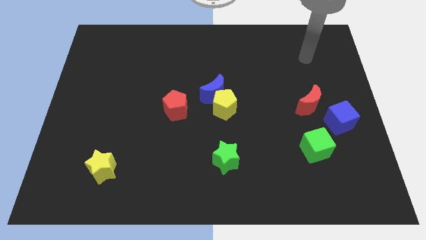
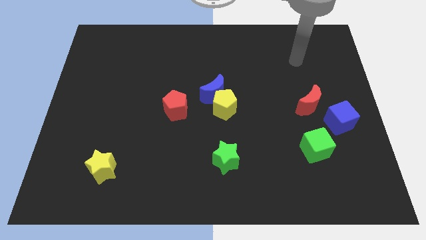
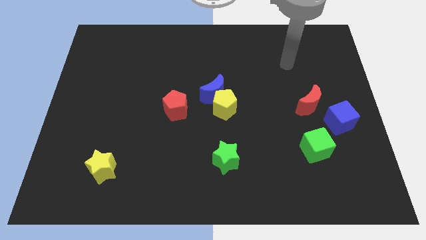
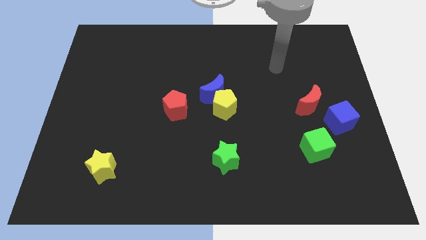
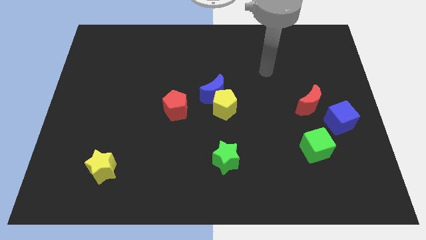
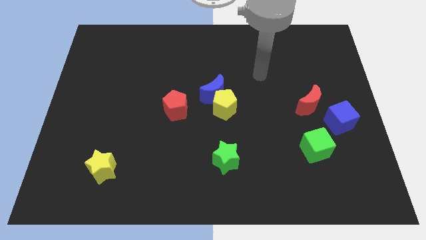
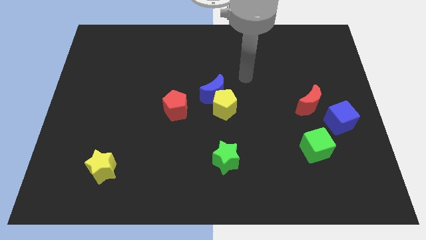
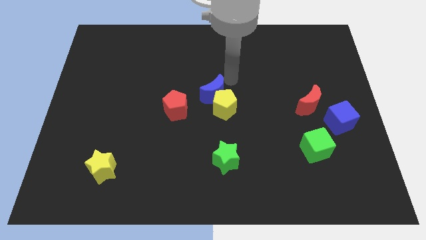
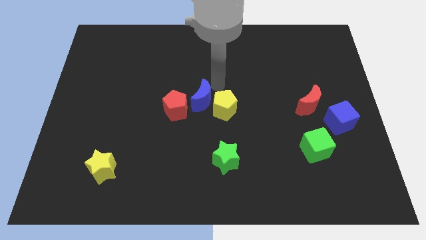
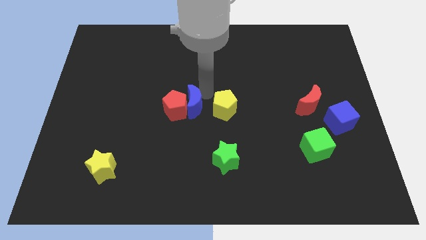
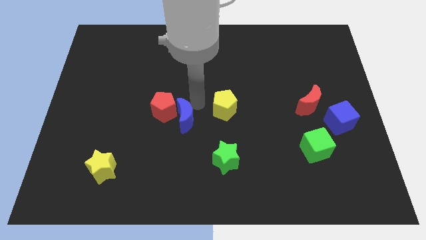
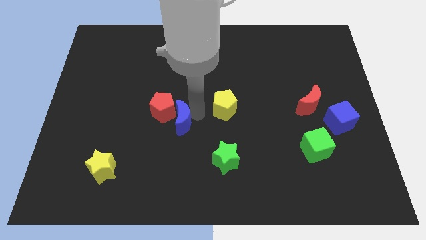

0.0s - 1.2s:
move the yellow pentagon away from the blue moon

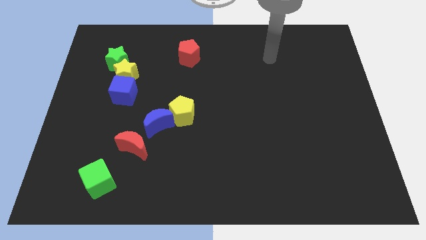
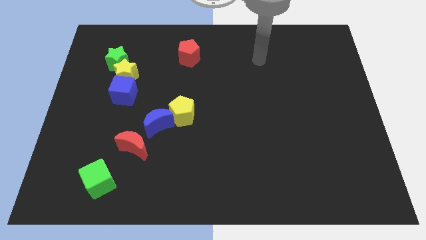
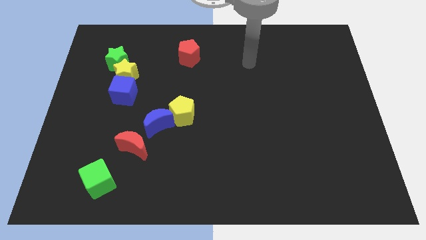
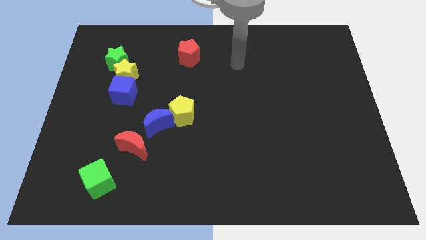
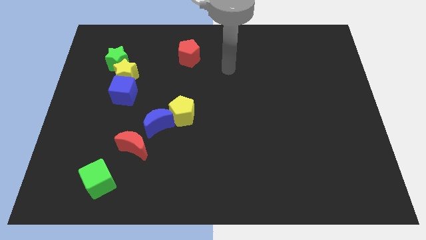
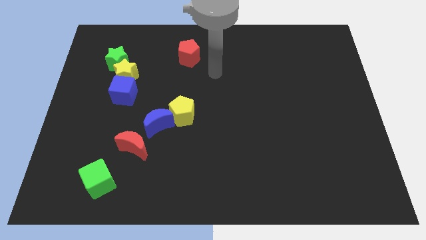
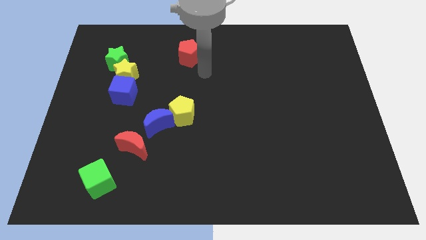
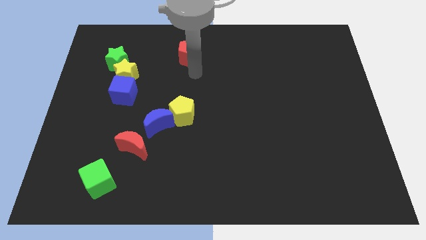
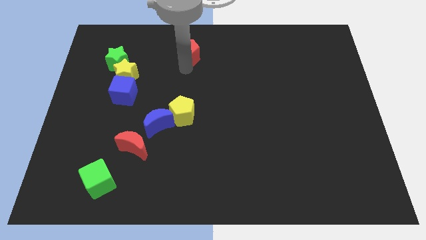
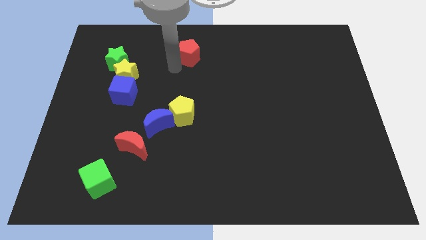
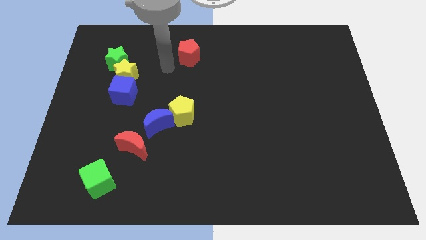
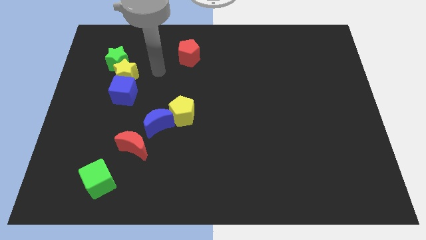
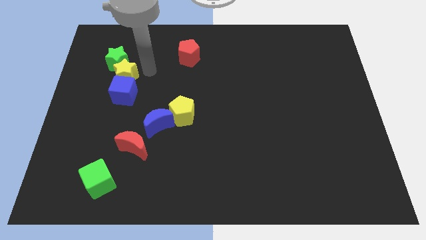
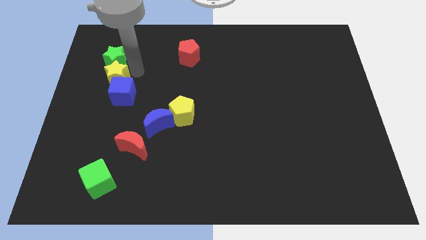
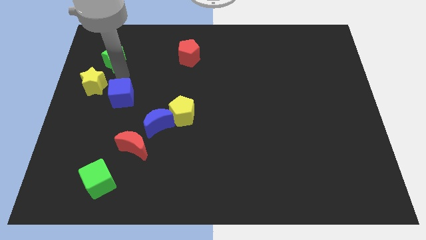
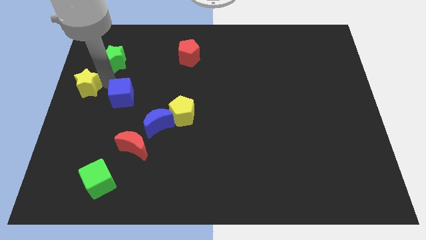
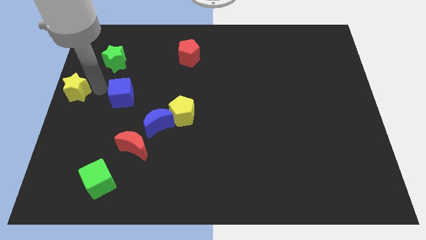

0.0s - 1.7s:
move the blue cube away from the yellow star

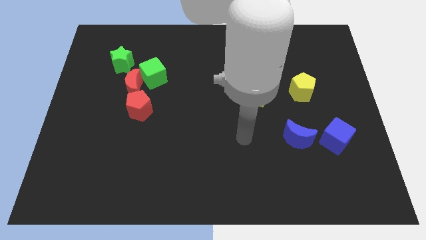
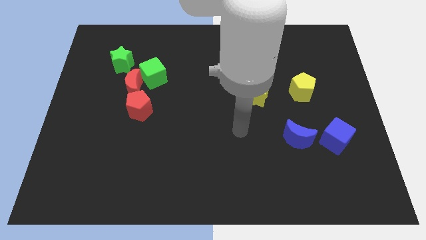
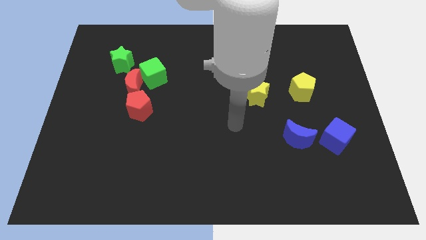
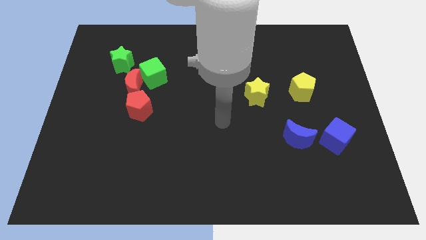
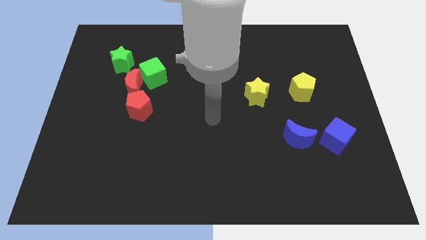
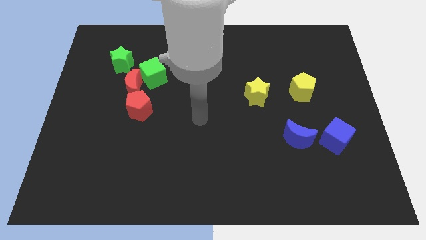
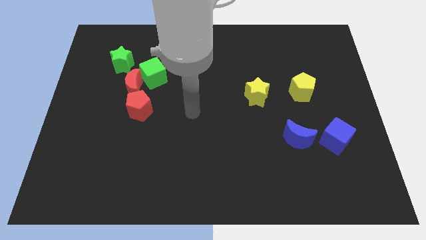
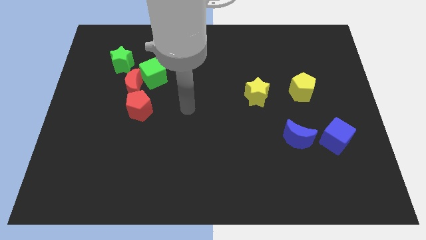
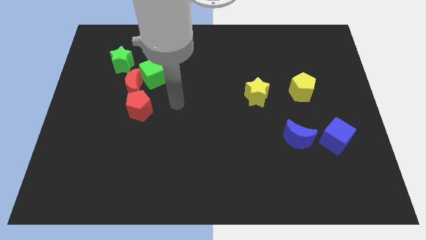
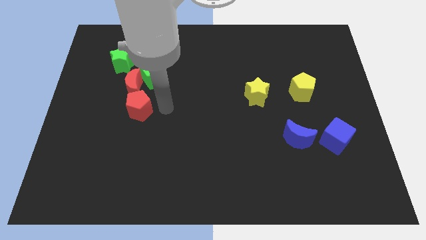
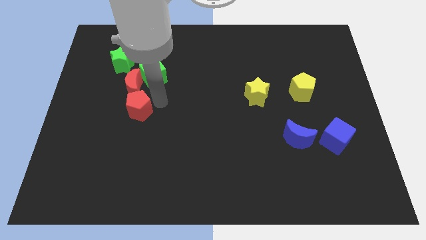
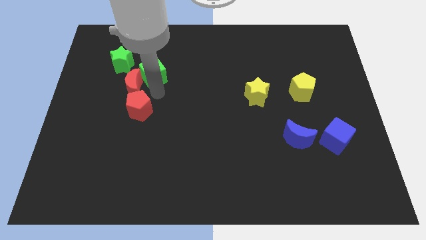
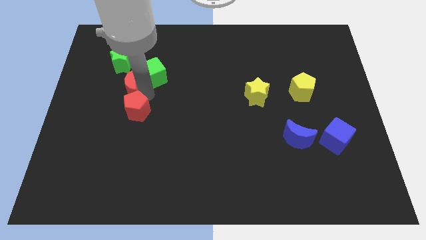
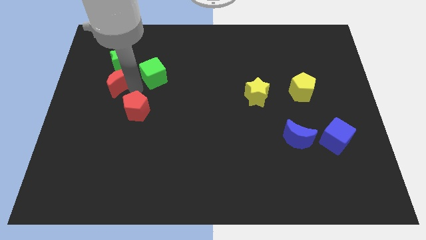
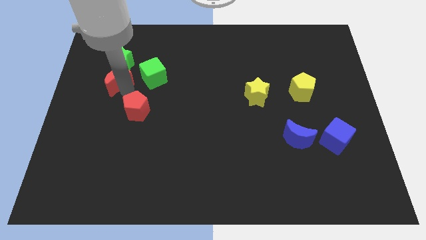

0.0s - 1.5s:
pull the red pentagon apart from the red moon

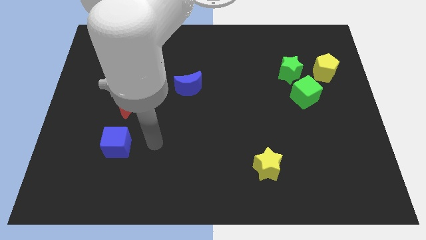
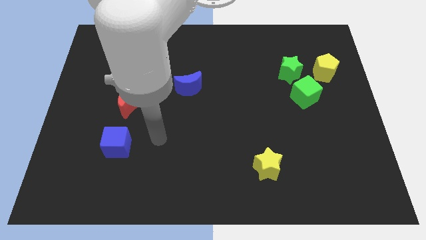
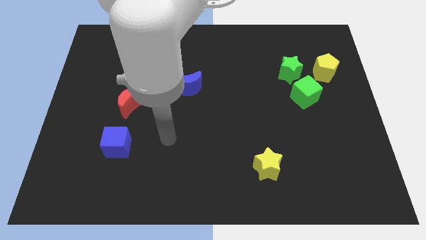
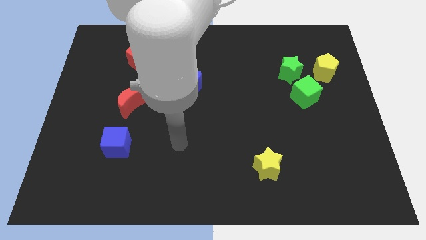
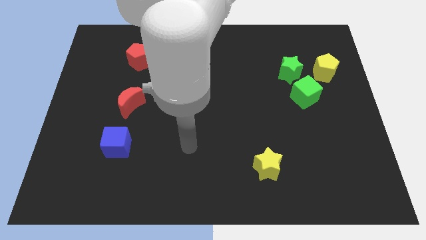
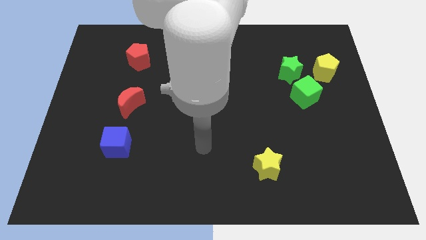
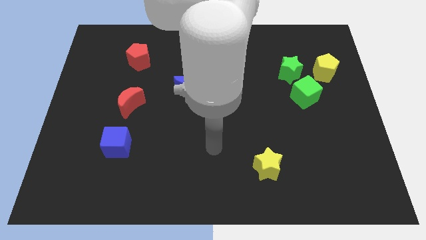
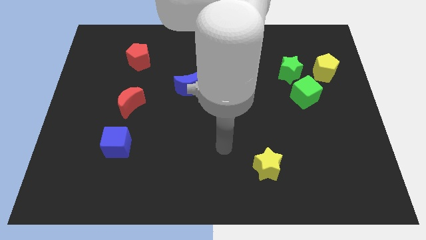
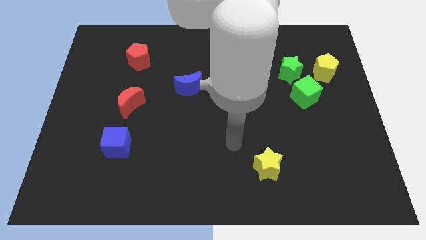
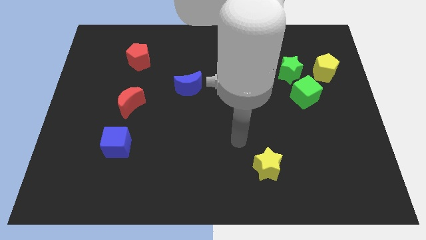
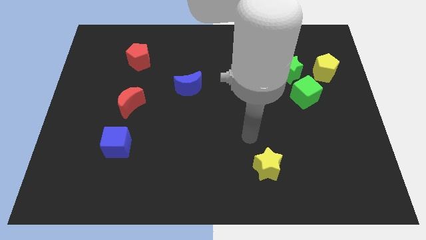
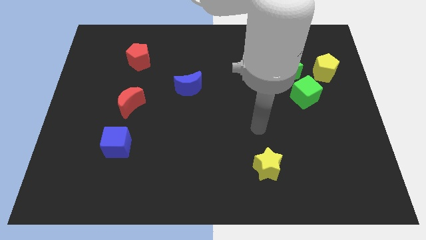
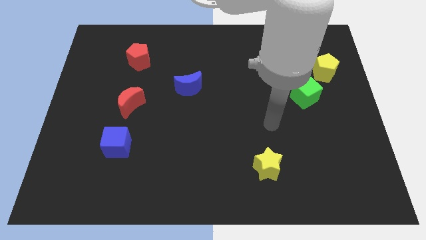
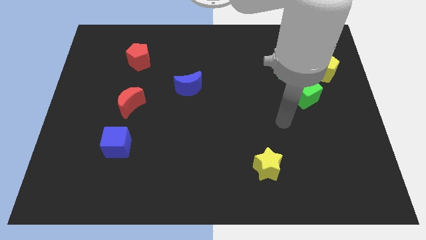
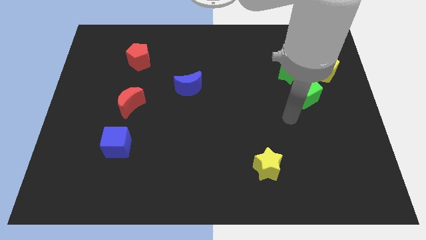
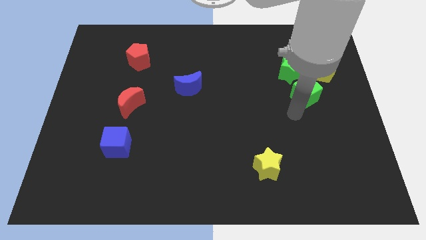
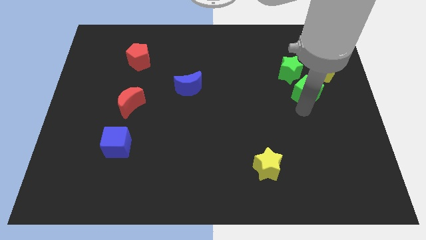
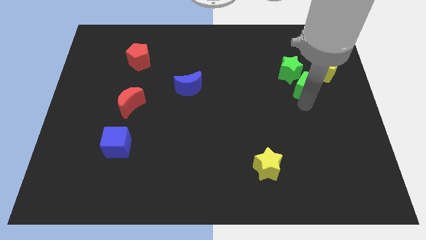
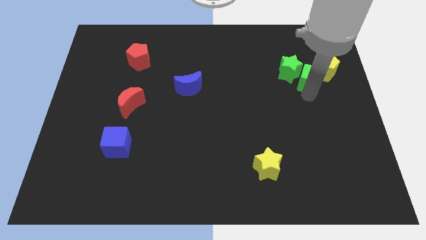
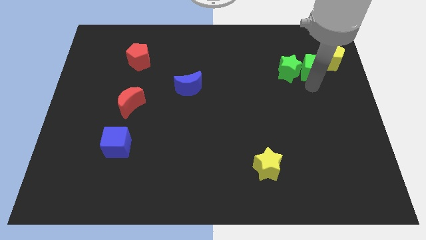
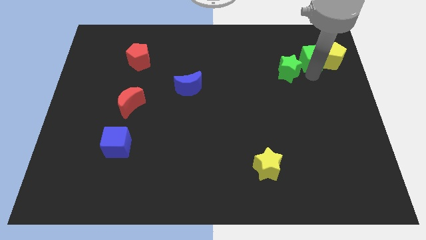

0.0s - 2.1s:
move the green star away from the green cube and yellow pentagon

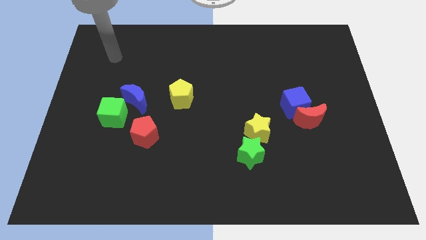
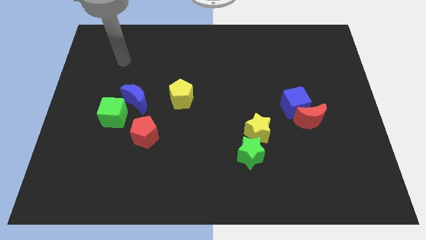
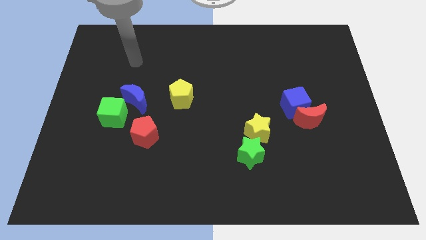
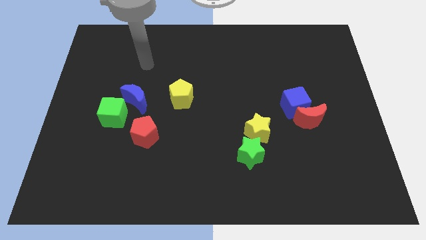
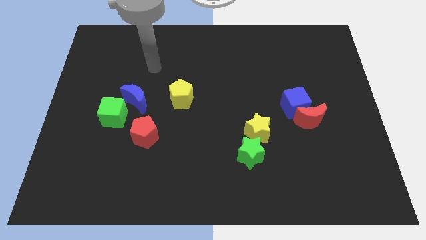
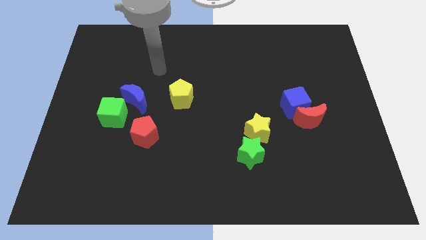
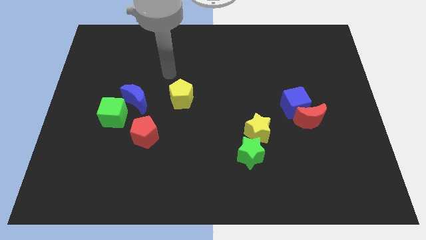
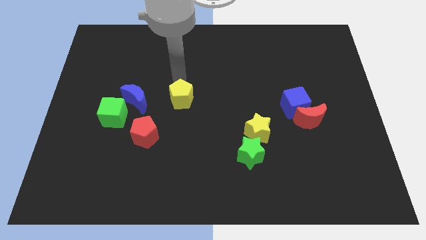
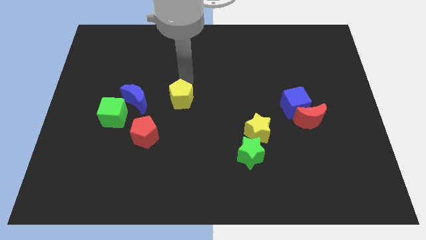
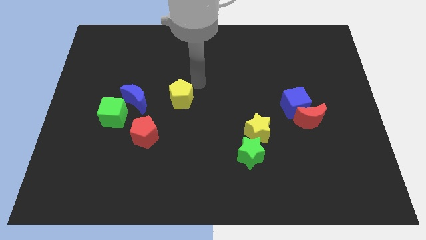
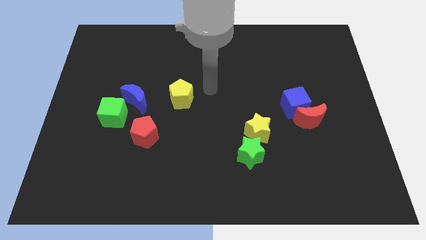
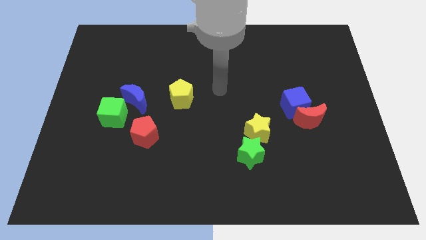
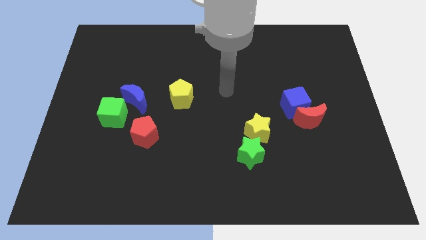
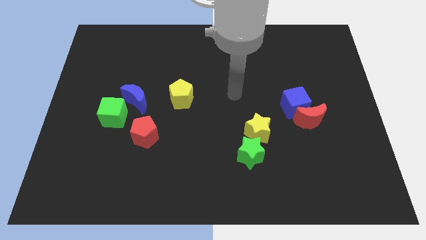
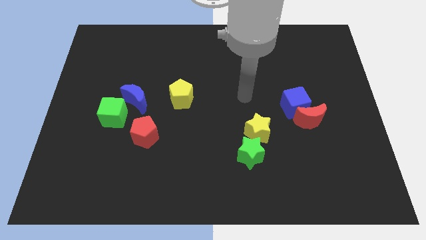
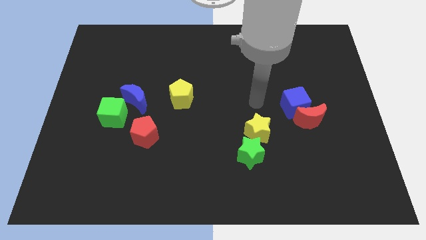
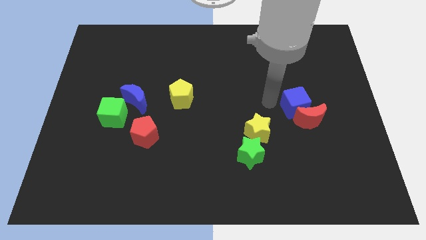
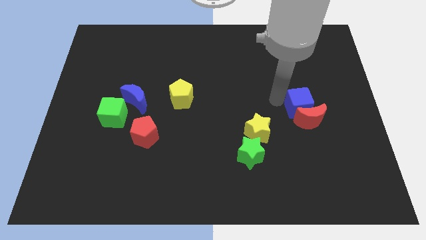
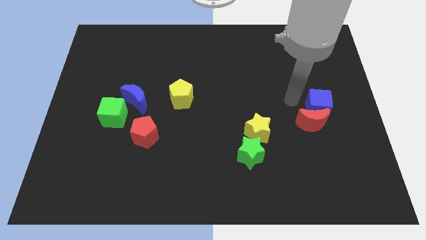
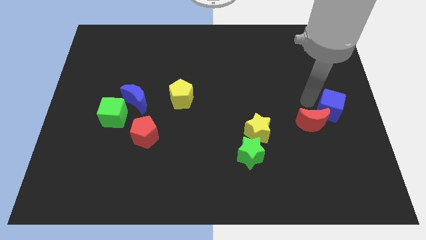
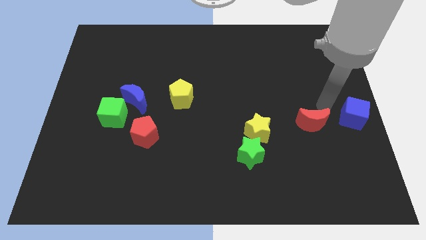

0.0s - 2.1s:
pull the red moon apart from the blue cube

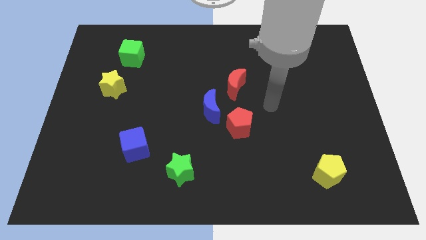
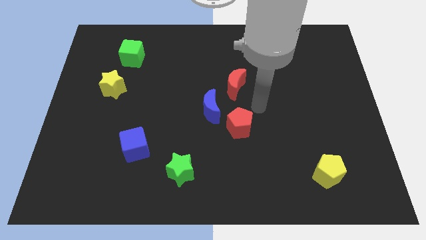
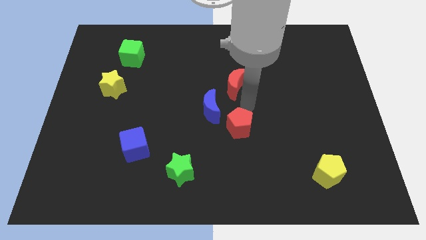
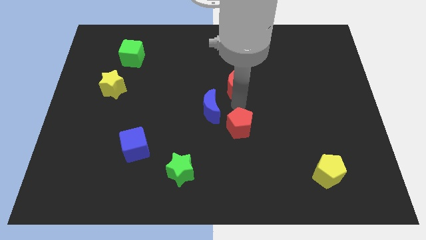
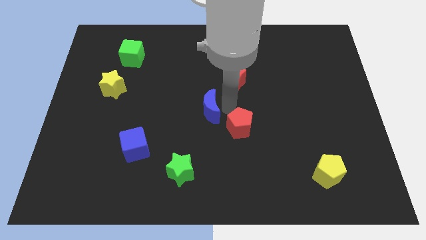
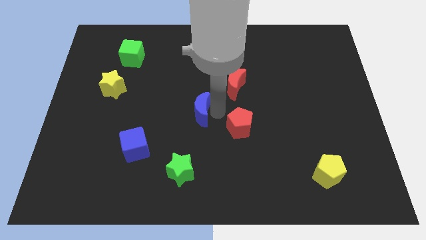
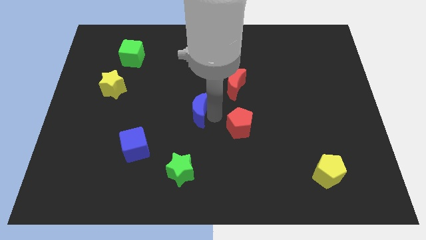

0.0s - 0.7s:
move the red pentagon away from the blue moon
